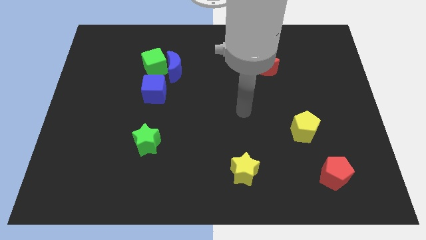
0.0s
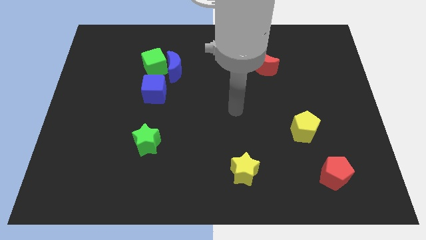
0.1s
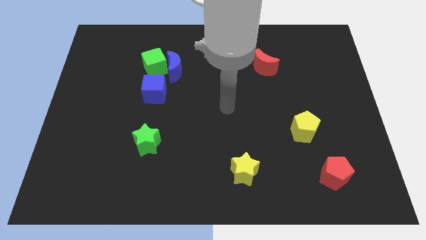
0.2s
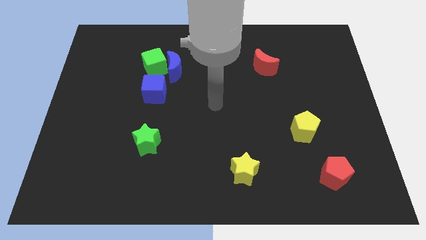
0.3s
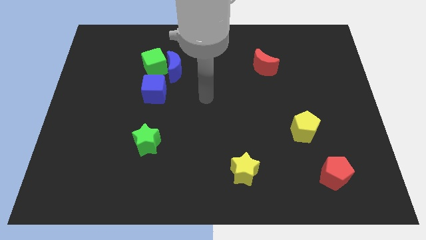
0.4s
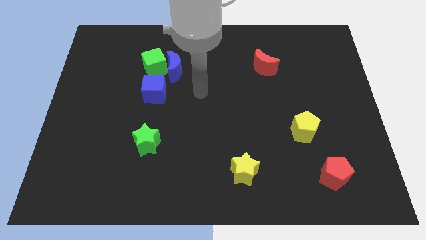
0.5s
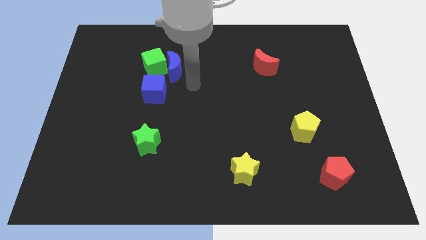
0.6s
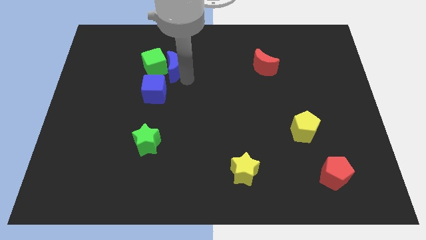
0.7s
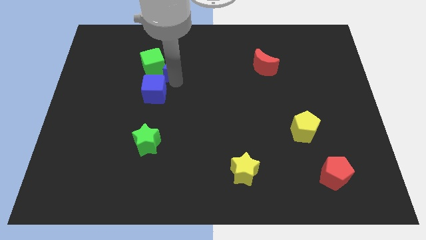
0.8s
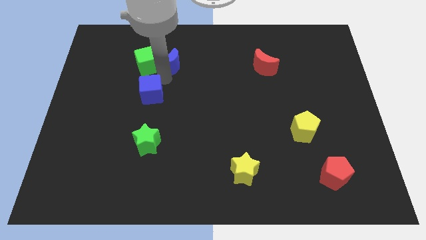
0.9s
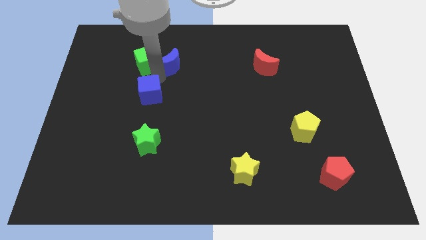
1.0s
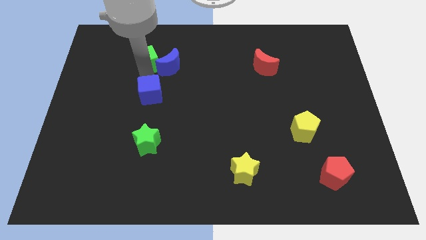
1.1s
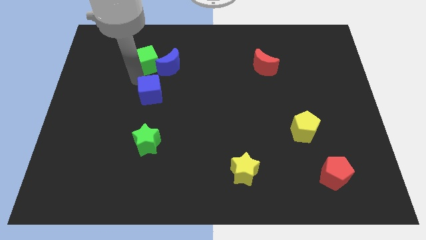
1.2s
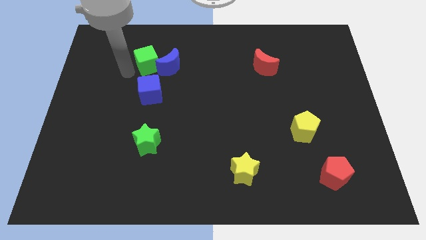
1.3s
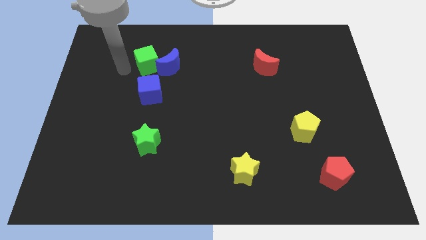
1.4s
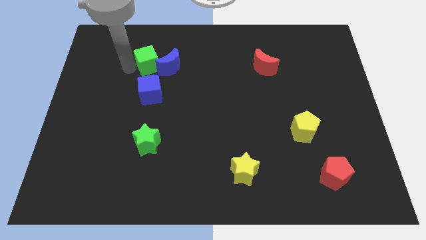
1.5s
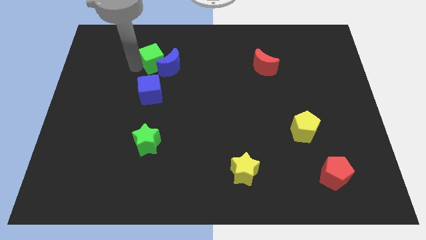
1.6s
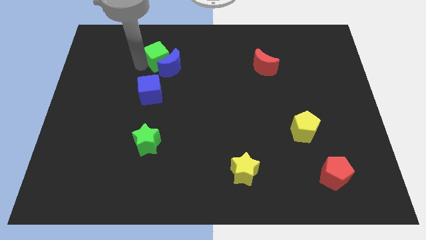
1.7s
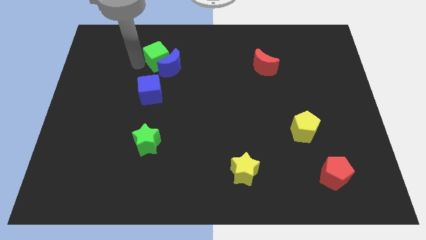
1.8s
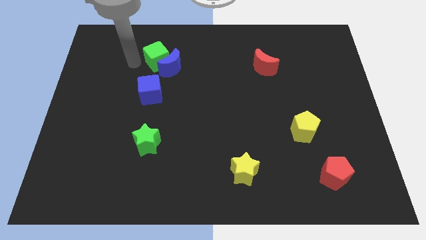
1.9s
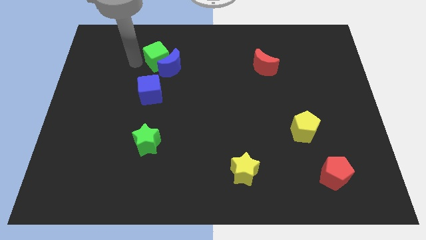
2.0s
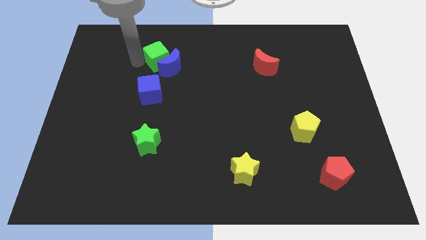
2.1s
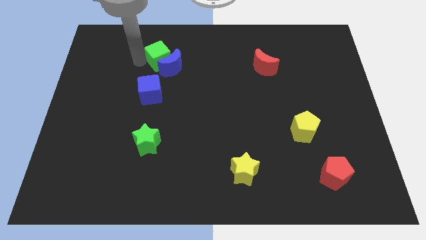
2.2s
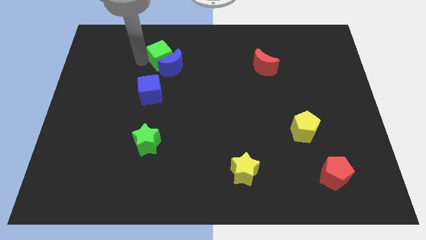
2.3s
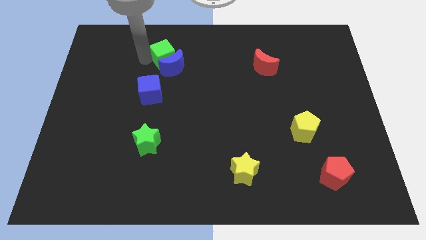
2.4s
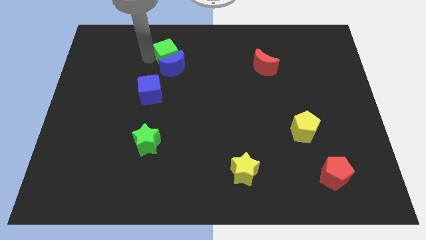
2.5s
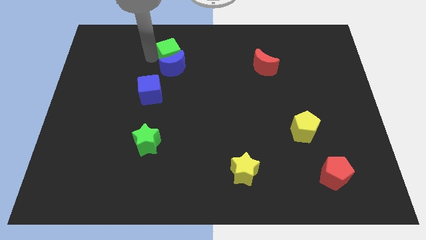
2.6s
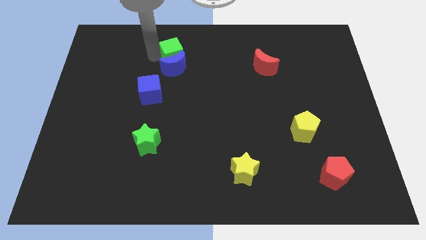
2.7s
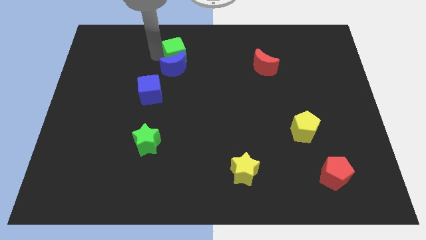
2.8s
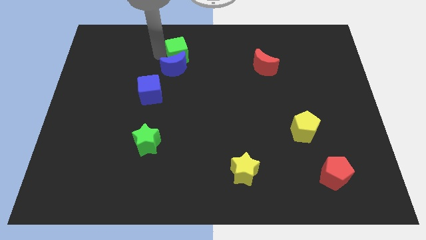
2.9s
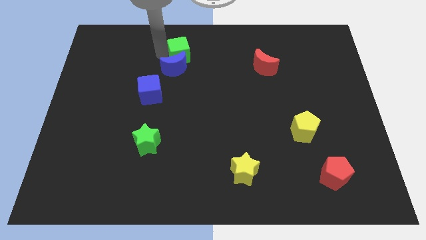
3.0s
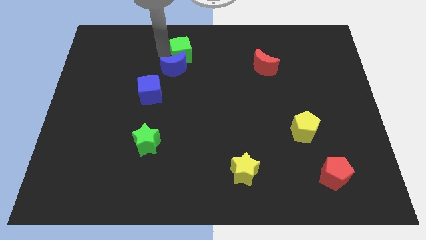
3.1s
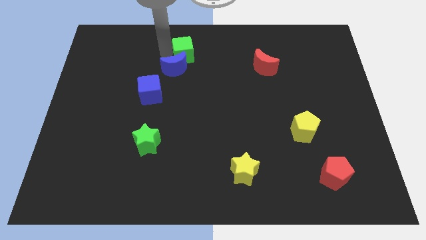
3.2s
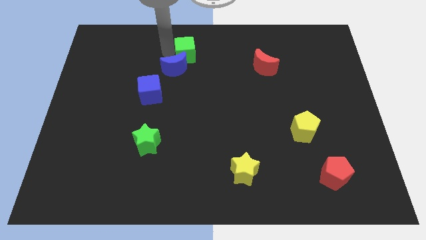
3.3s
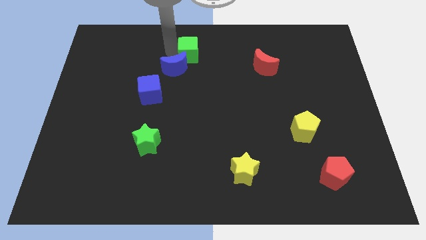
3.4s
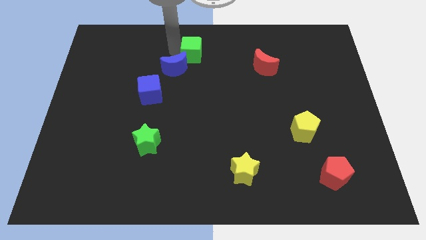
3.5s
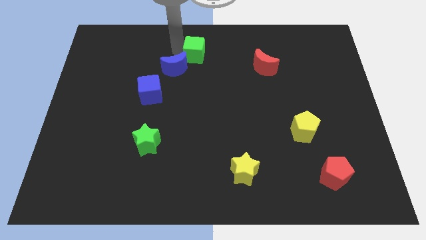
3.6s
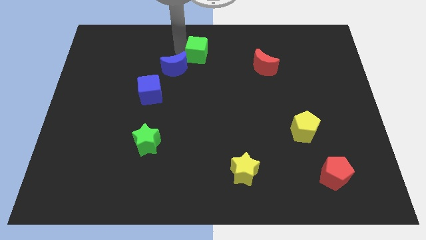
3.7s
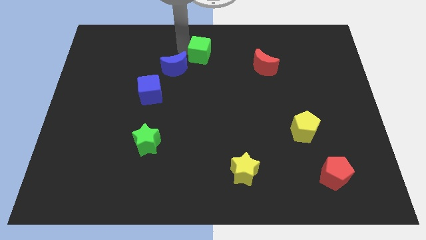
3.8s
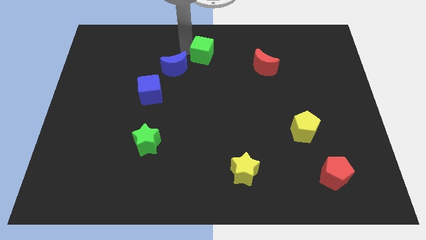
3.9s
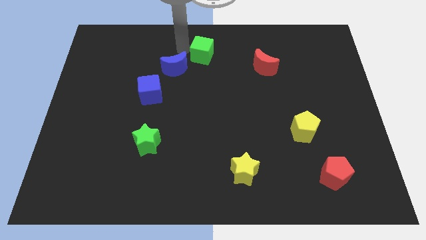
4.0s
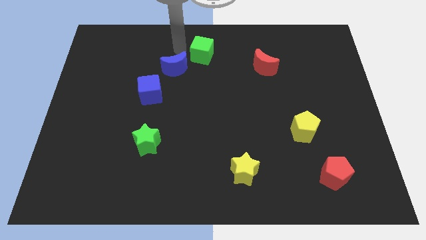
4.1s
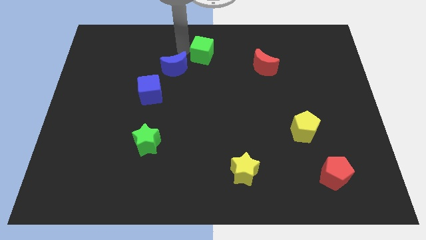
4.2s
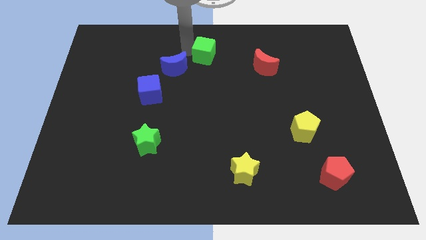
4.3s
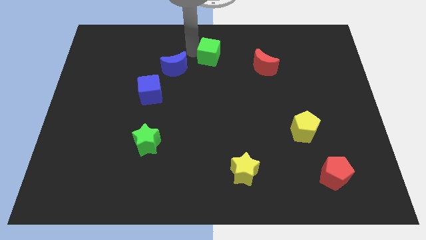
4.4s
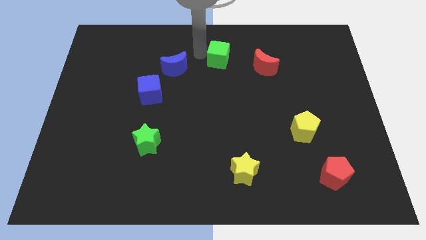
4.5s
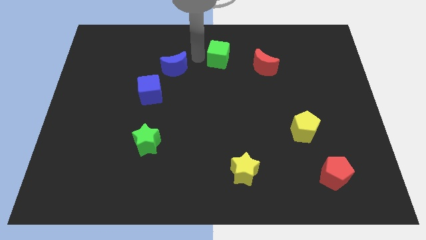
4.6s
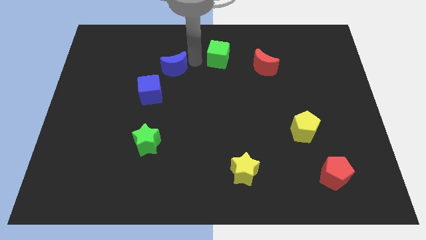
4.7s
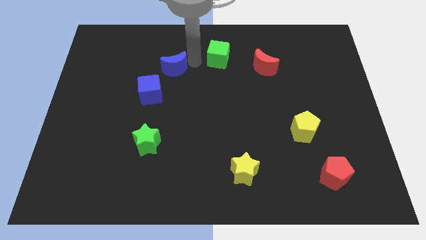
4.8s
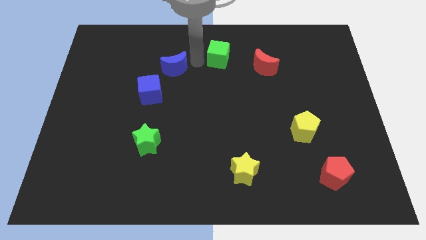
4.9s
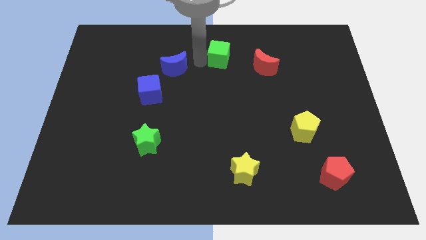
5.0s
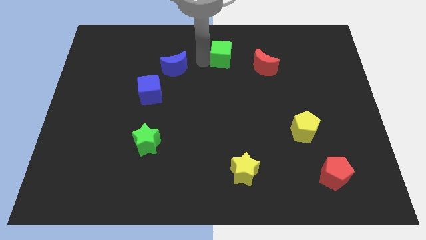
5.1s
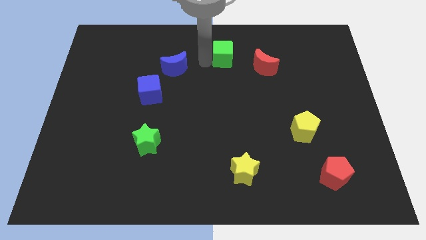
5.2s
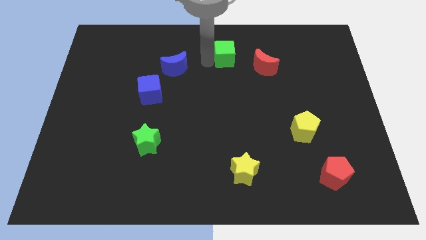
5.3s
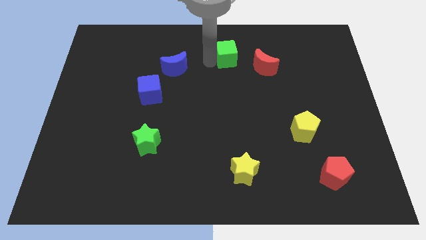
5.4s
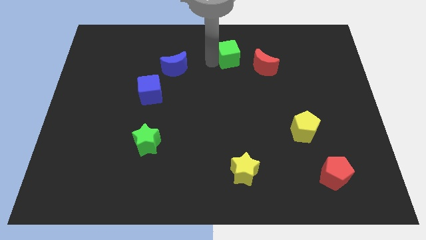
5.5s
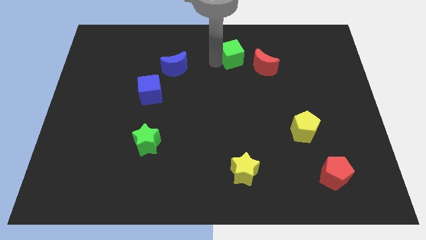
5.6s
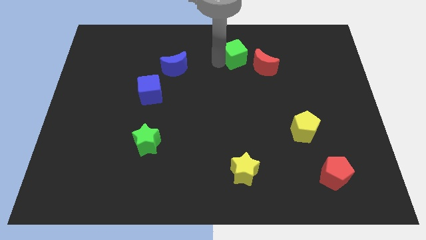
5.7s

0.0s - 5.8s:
push the green cube right

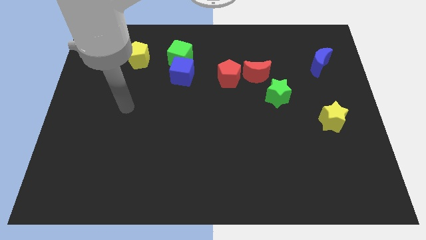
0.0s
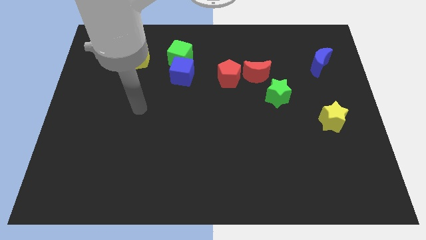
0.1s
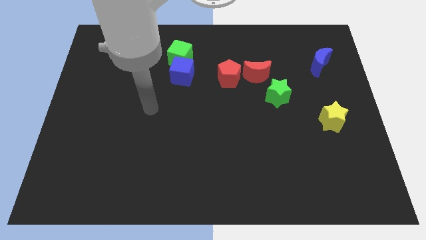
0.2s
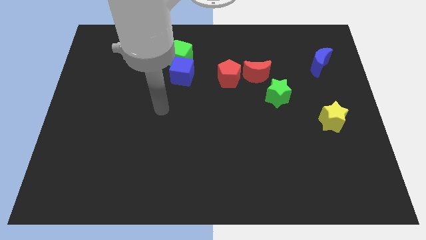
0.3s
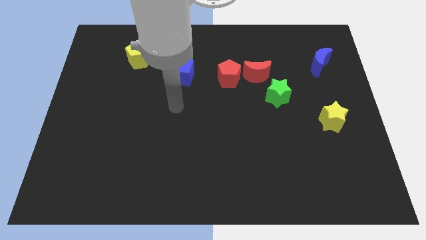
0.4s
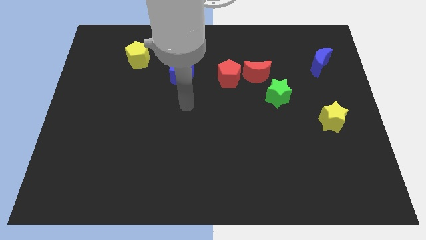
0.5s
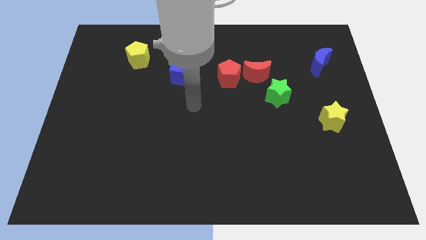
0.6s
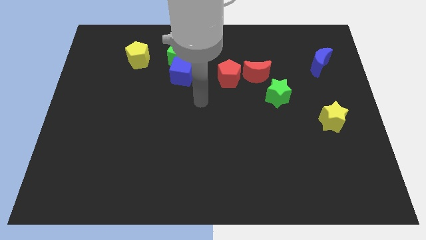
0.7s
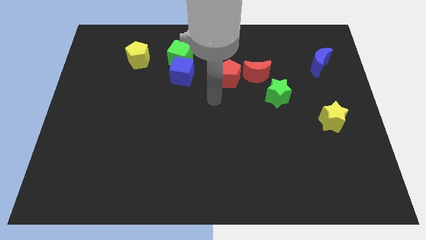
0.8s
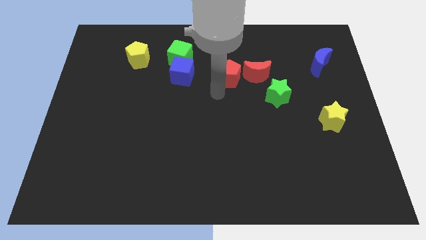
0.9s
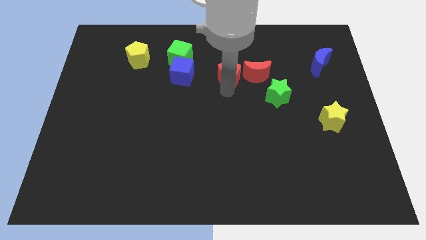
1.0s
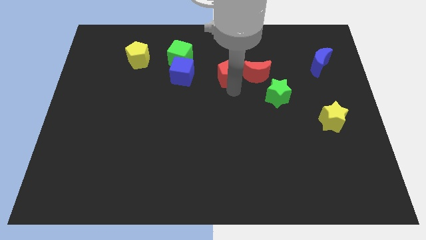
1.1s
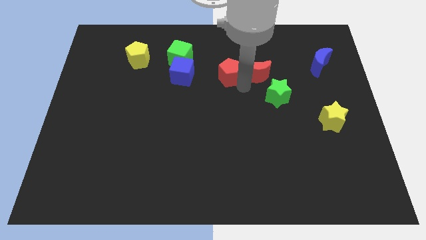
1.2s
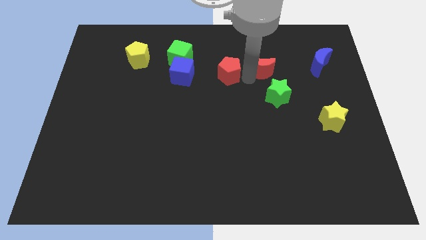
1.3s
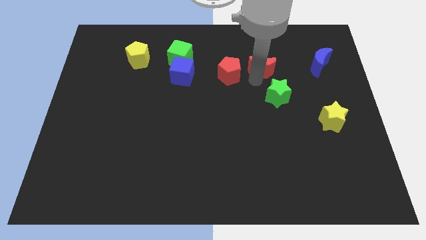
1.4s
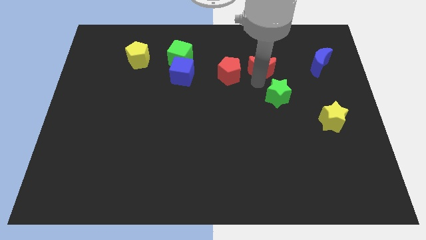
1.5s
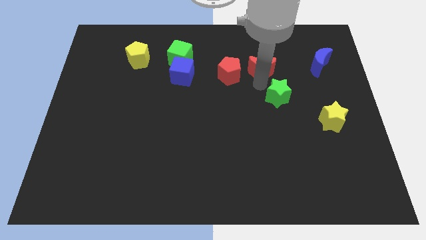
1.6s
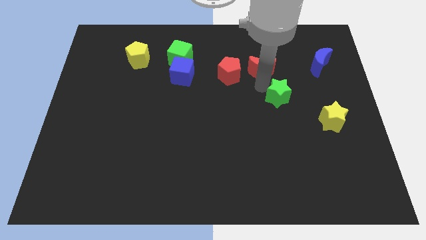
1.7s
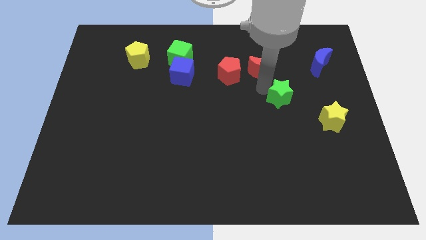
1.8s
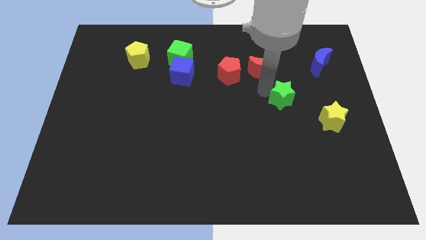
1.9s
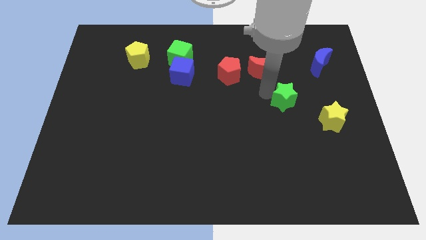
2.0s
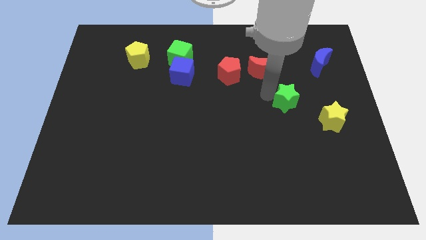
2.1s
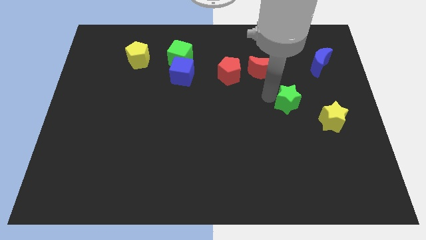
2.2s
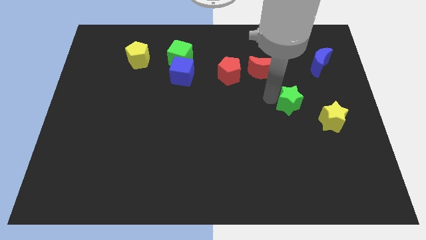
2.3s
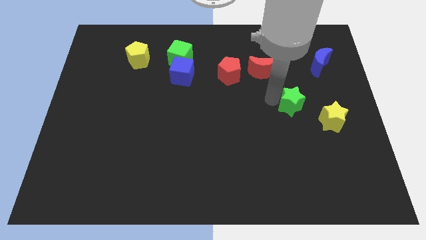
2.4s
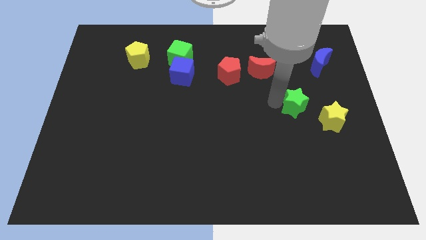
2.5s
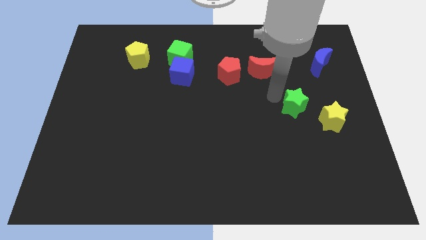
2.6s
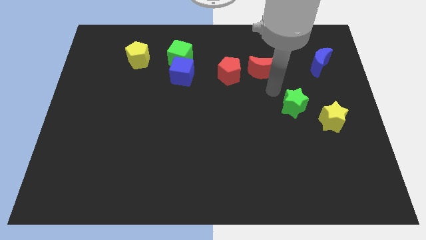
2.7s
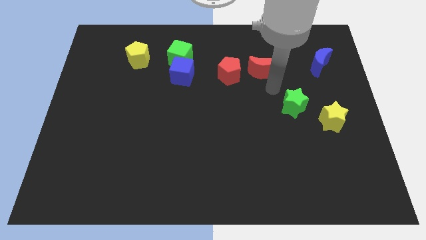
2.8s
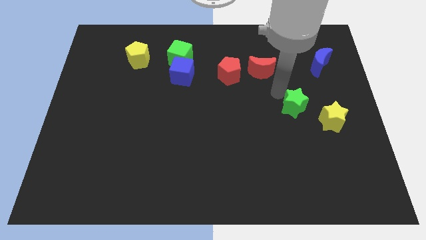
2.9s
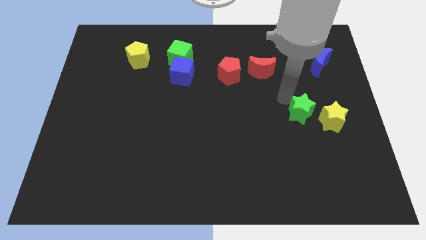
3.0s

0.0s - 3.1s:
move the green star a little downwards and then right
